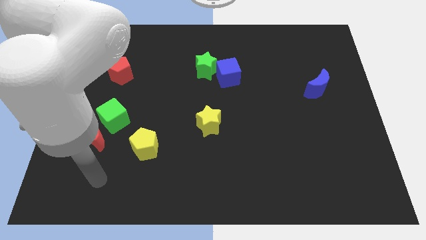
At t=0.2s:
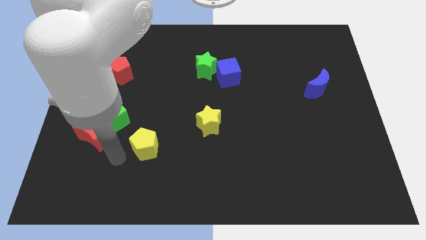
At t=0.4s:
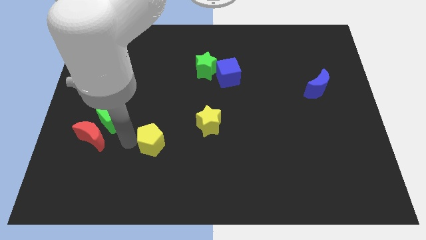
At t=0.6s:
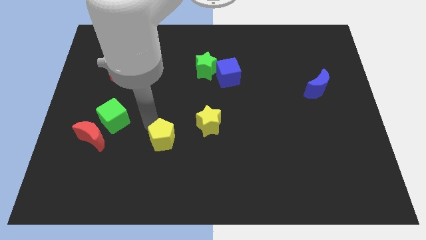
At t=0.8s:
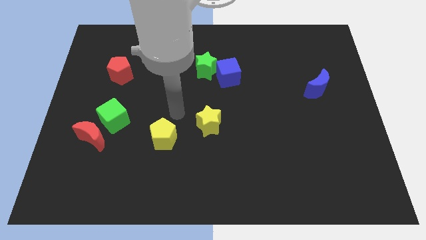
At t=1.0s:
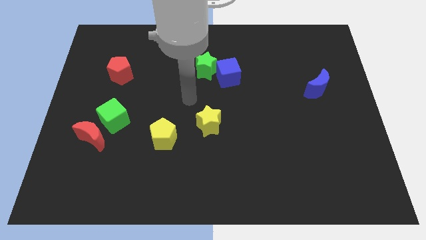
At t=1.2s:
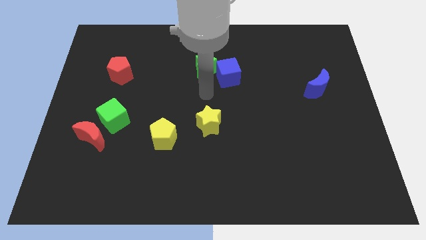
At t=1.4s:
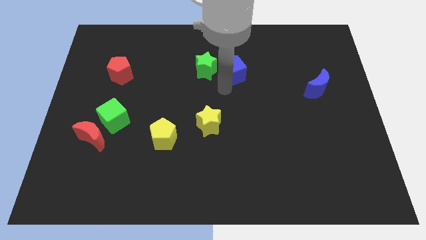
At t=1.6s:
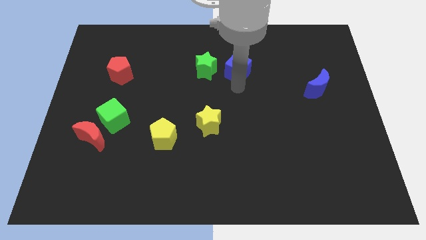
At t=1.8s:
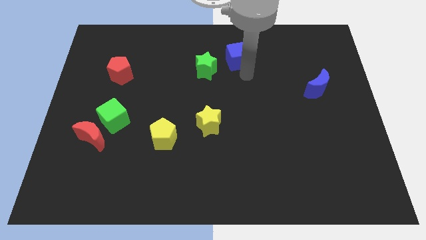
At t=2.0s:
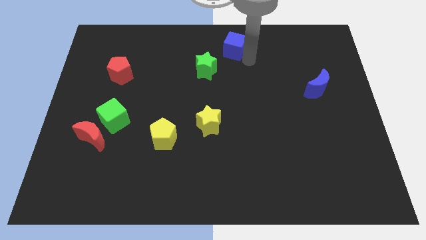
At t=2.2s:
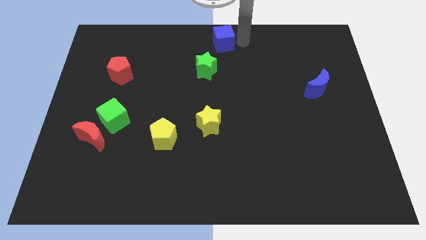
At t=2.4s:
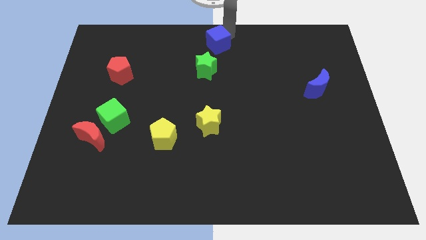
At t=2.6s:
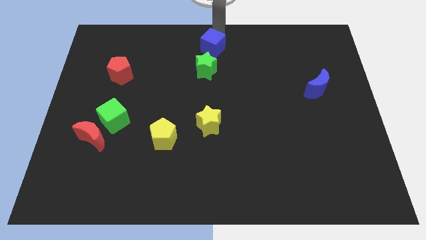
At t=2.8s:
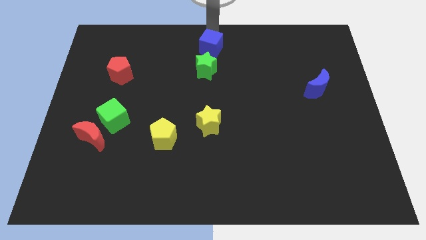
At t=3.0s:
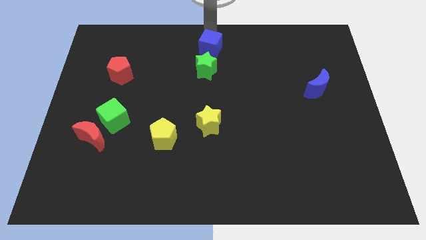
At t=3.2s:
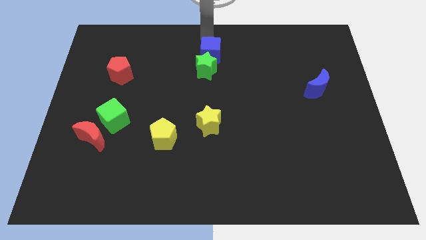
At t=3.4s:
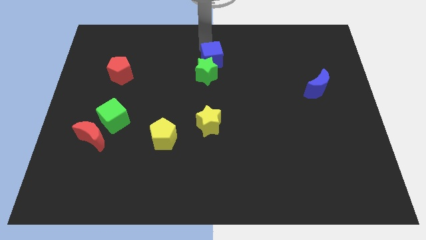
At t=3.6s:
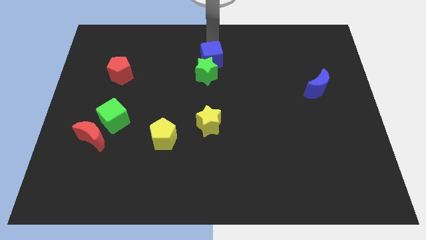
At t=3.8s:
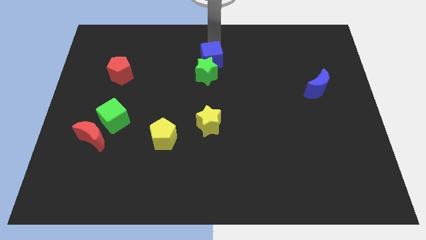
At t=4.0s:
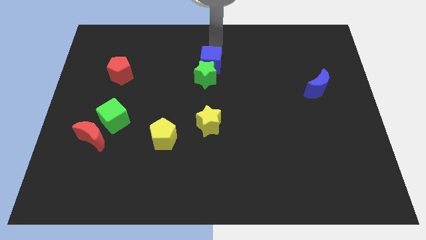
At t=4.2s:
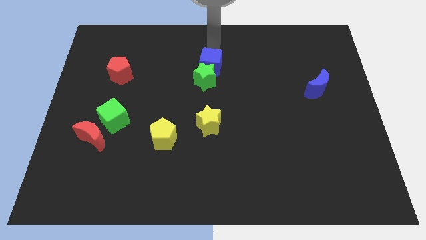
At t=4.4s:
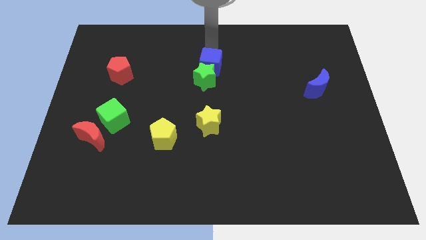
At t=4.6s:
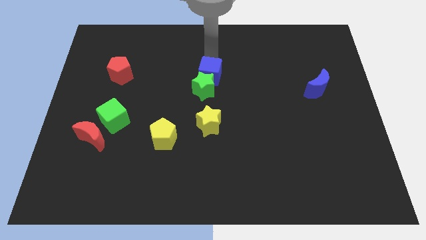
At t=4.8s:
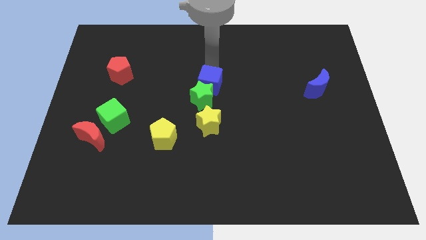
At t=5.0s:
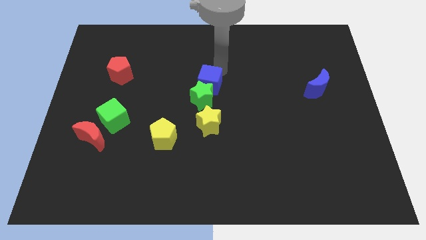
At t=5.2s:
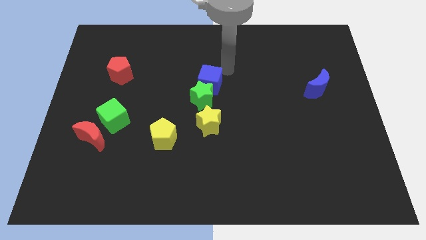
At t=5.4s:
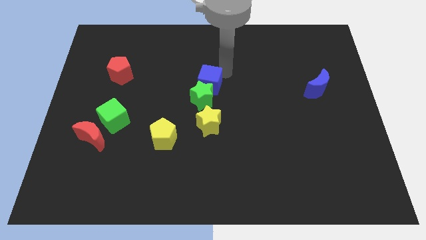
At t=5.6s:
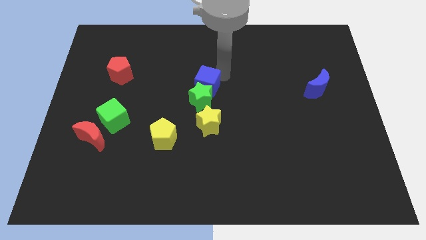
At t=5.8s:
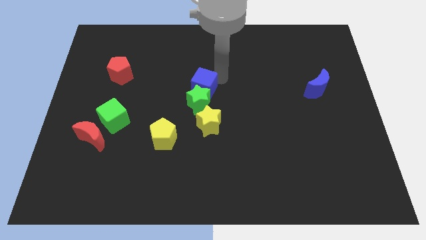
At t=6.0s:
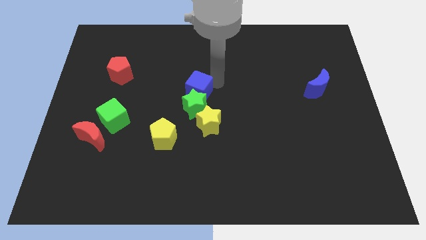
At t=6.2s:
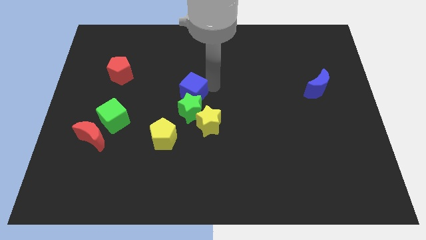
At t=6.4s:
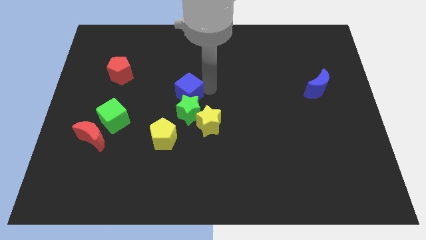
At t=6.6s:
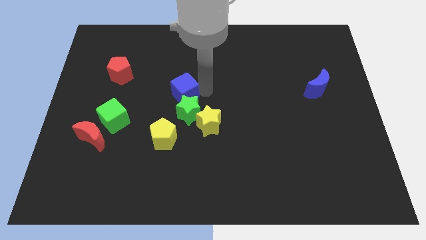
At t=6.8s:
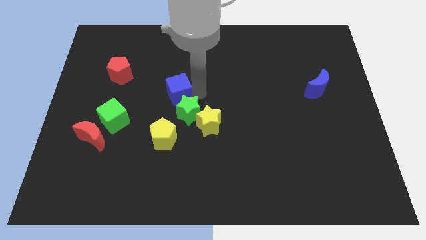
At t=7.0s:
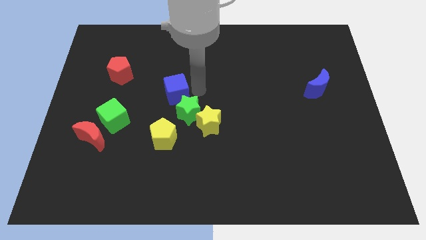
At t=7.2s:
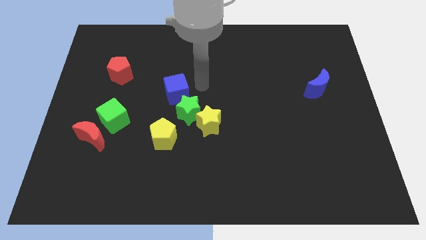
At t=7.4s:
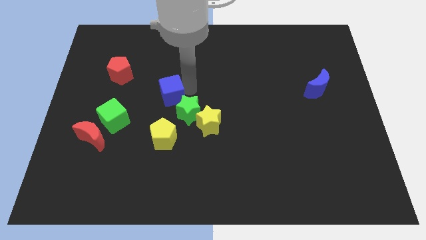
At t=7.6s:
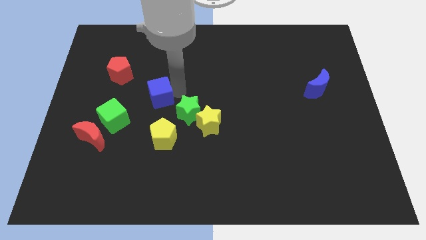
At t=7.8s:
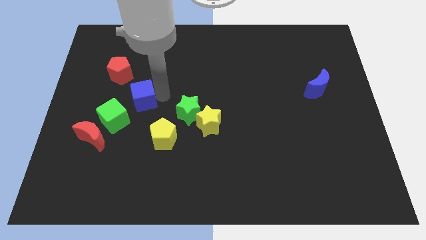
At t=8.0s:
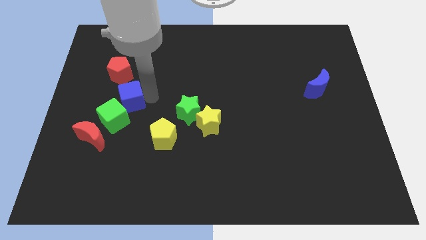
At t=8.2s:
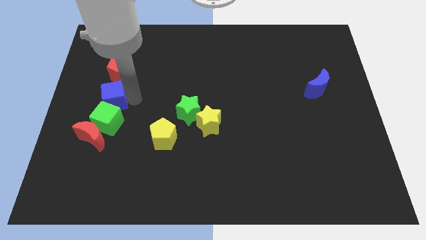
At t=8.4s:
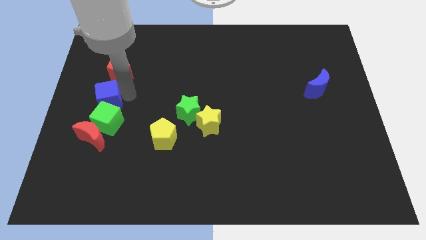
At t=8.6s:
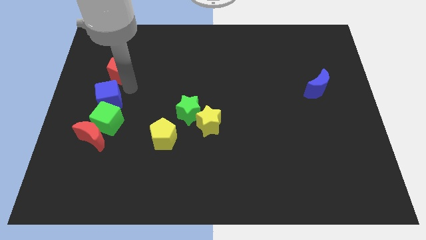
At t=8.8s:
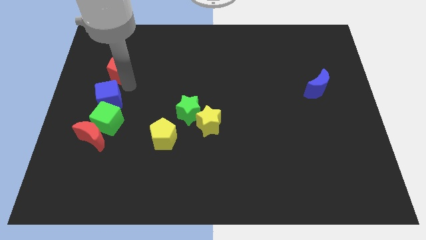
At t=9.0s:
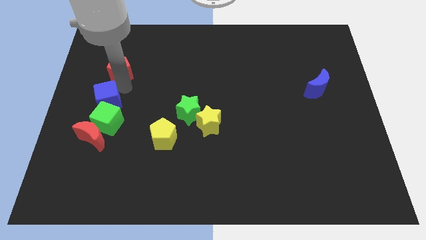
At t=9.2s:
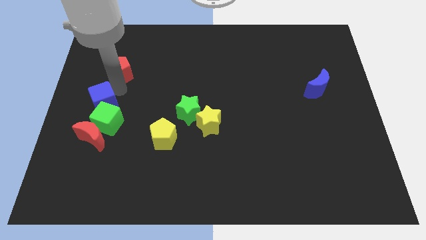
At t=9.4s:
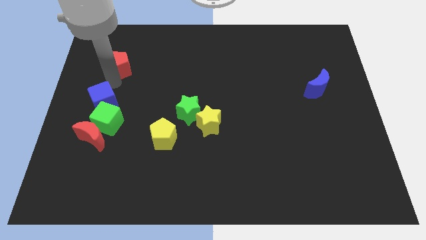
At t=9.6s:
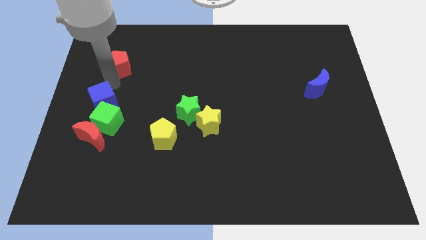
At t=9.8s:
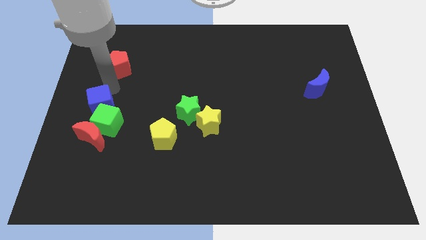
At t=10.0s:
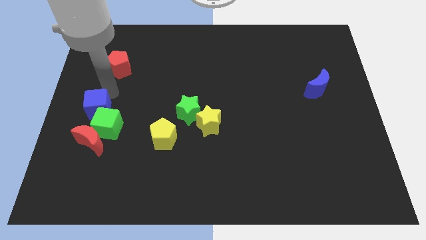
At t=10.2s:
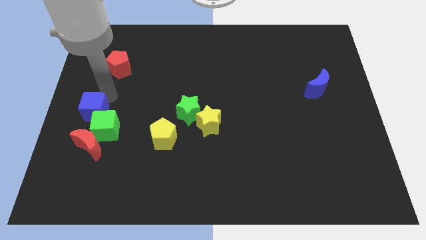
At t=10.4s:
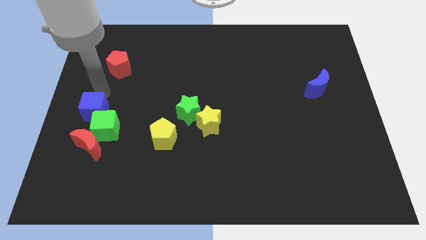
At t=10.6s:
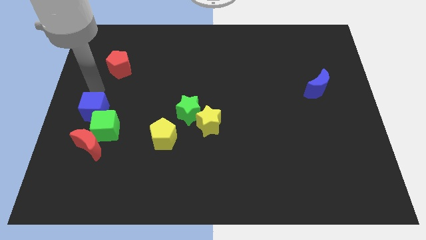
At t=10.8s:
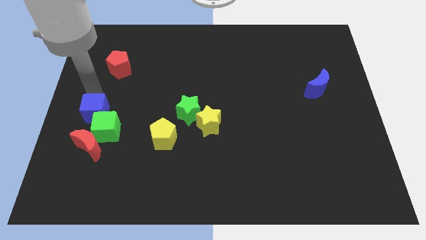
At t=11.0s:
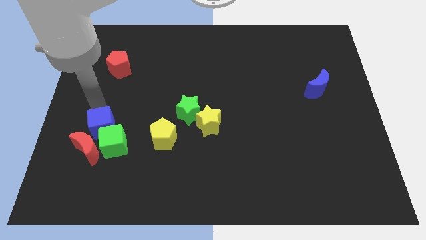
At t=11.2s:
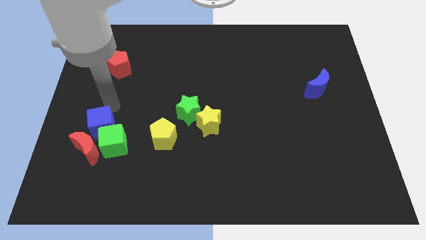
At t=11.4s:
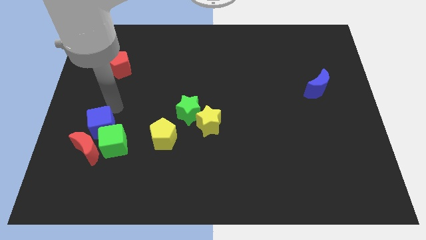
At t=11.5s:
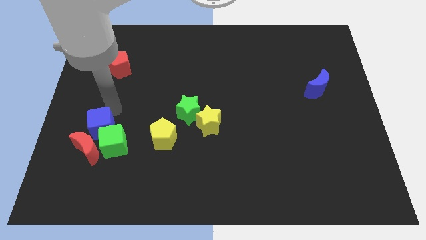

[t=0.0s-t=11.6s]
put the blue cube towards the red moon

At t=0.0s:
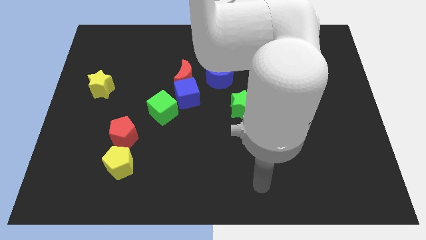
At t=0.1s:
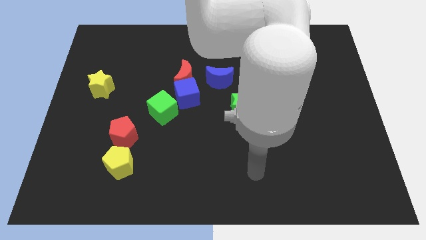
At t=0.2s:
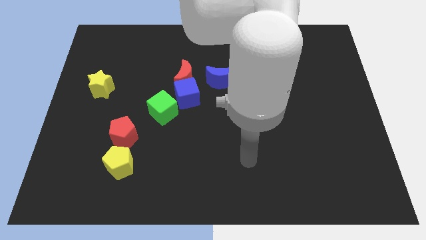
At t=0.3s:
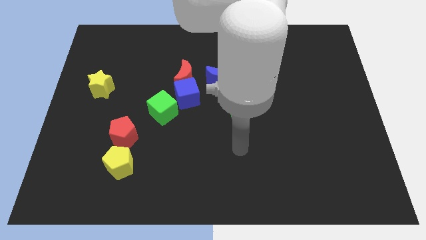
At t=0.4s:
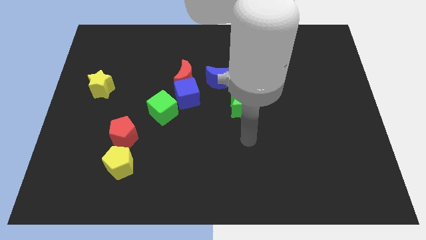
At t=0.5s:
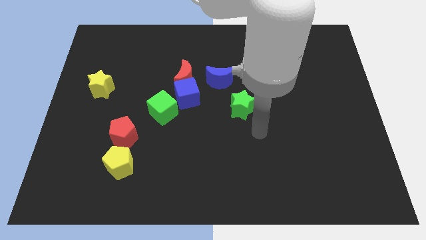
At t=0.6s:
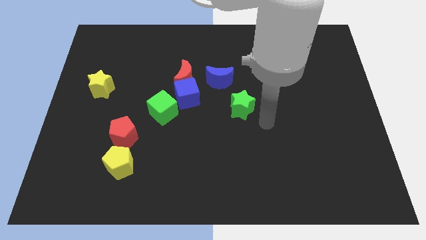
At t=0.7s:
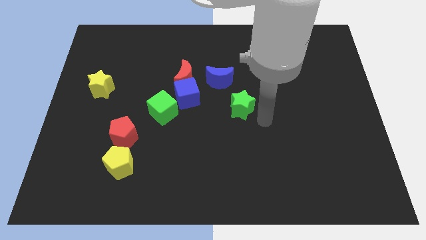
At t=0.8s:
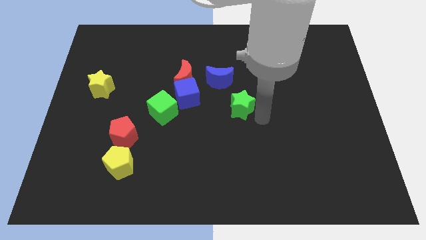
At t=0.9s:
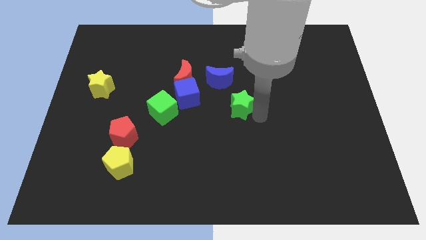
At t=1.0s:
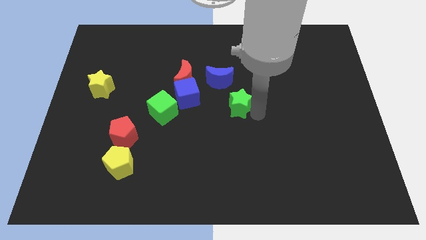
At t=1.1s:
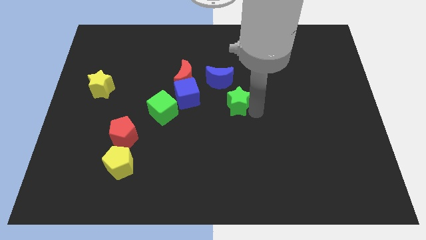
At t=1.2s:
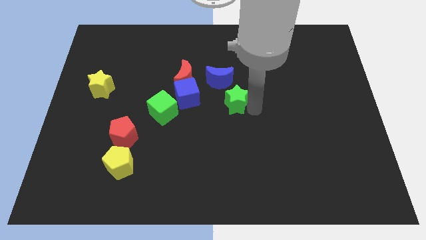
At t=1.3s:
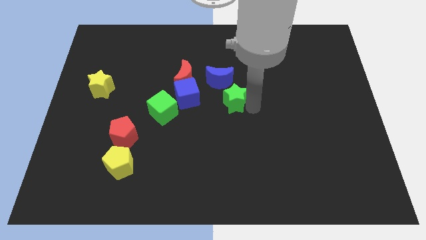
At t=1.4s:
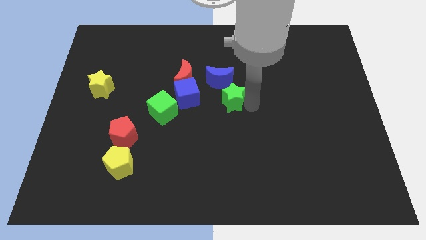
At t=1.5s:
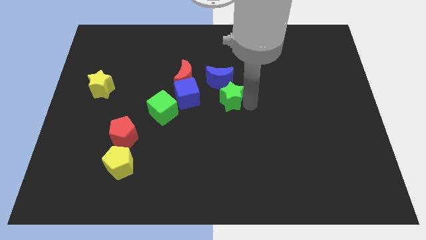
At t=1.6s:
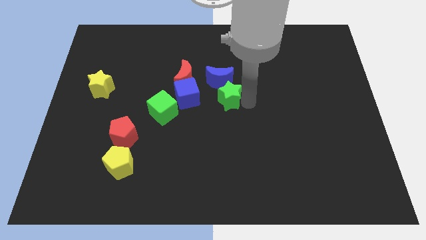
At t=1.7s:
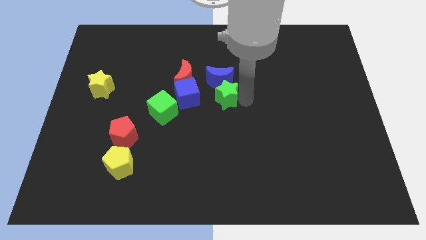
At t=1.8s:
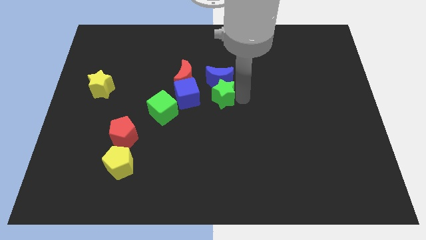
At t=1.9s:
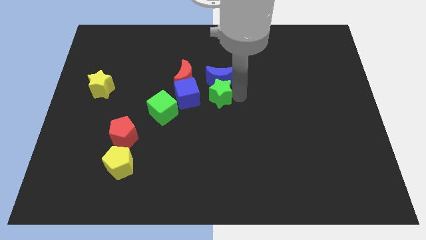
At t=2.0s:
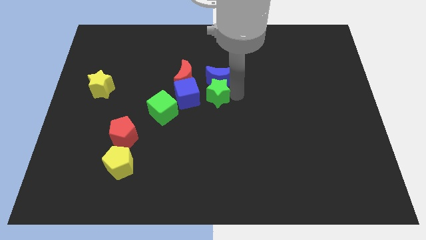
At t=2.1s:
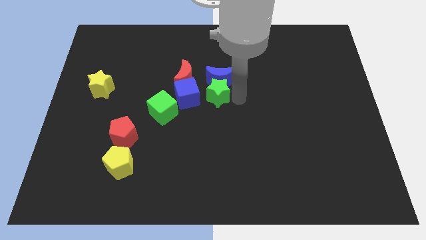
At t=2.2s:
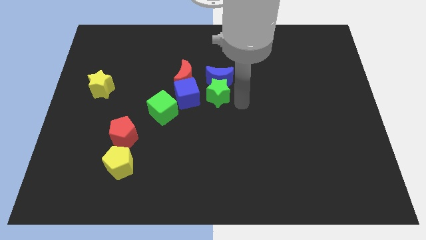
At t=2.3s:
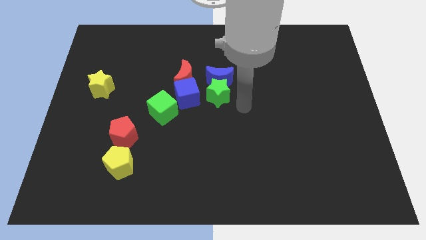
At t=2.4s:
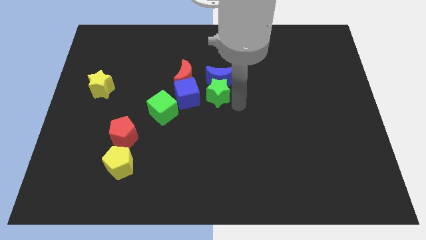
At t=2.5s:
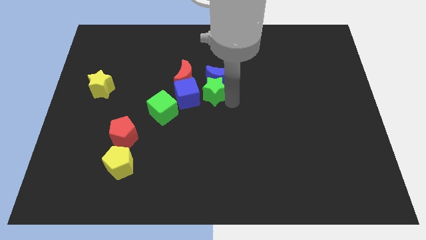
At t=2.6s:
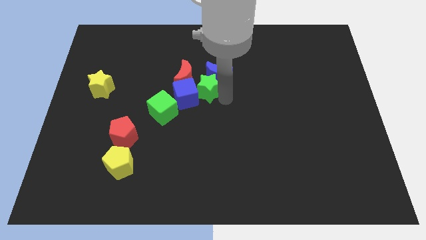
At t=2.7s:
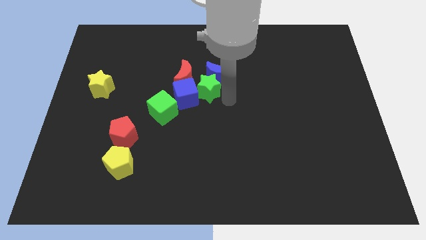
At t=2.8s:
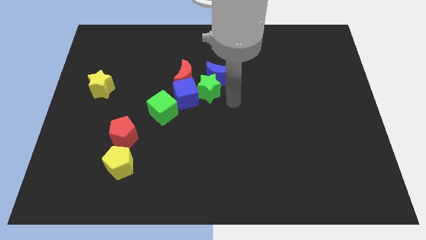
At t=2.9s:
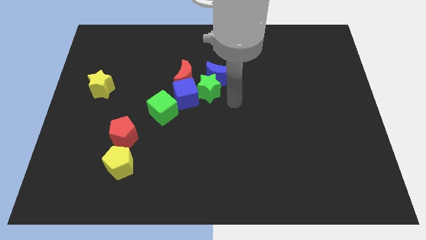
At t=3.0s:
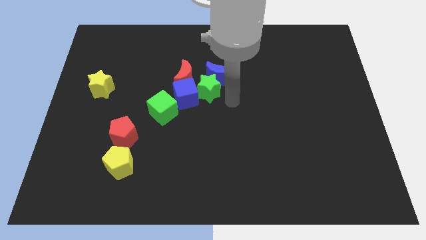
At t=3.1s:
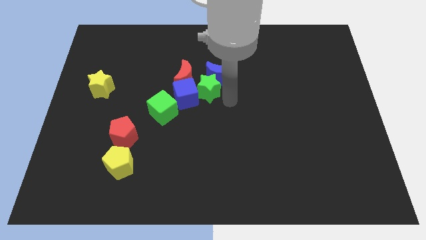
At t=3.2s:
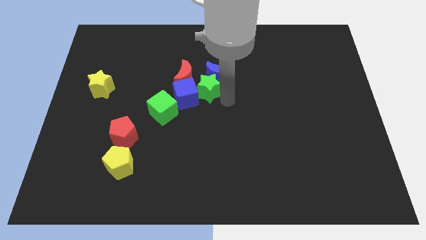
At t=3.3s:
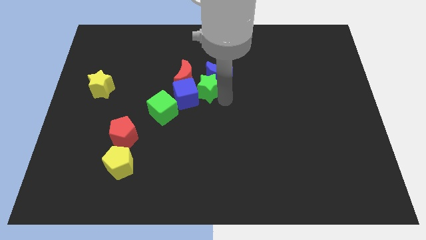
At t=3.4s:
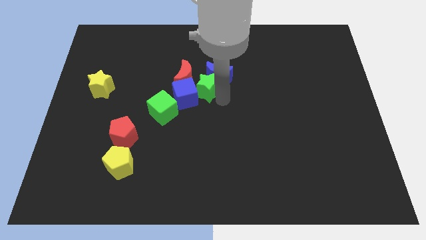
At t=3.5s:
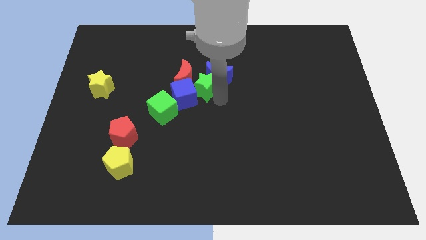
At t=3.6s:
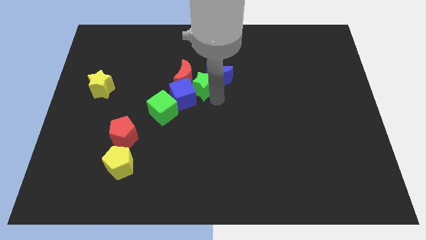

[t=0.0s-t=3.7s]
move the green star close to the red moon
